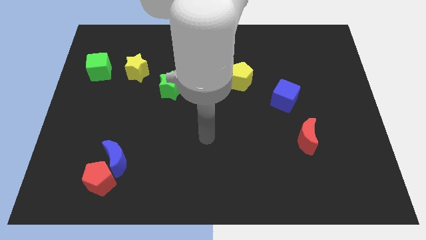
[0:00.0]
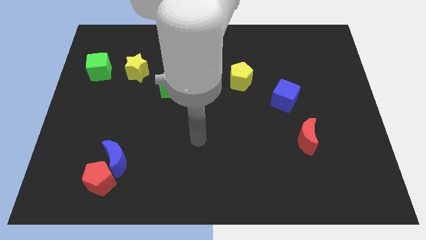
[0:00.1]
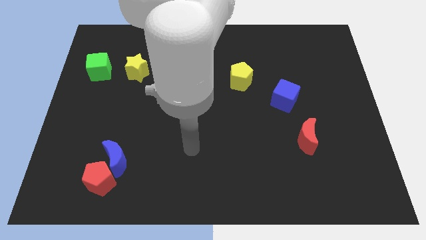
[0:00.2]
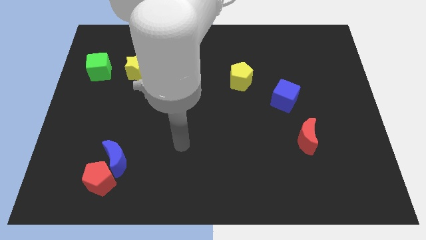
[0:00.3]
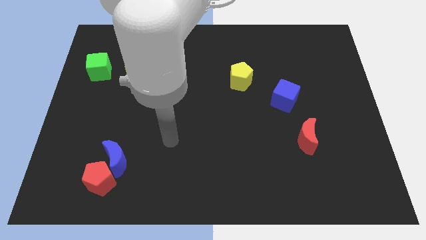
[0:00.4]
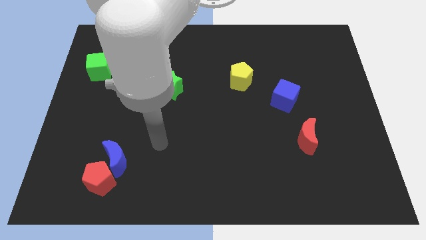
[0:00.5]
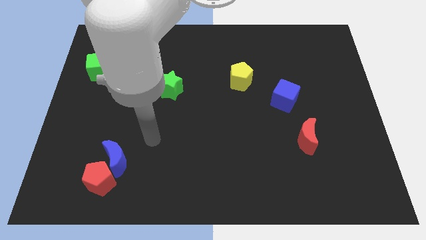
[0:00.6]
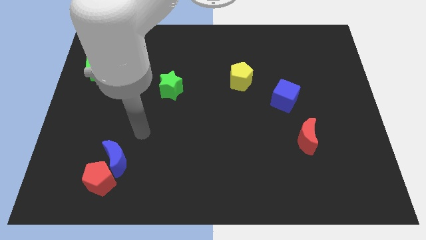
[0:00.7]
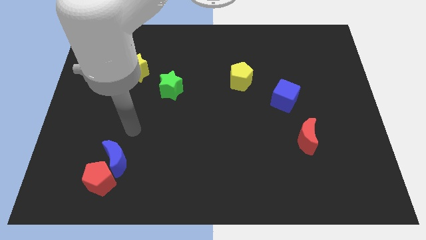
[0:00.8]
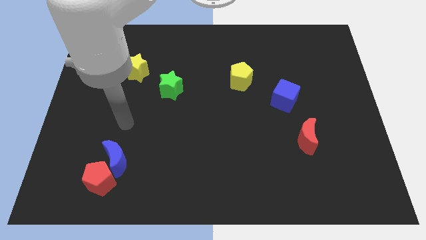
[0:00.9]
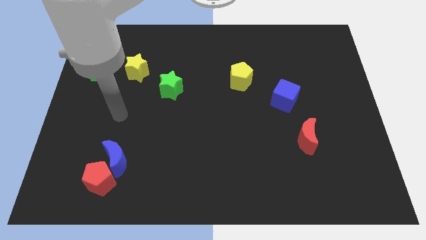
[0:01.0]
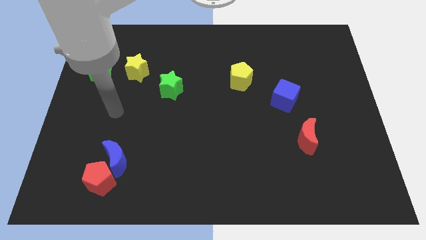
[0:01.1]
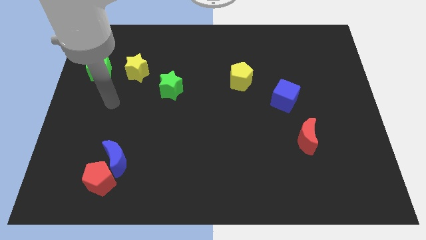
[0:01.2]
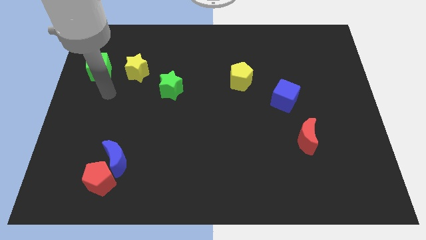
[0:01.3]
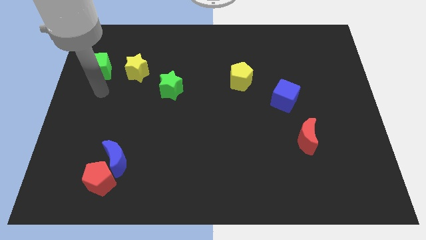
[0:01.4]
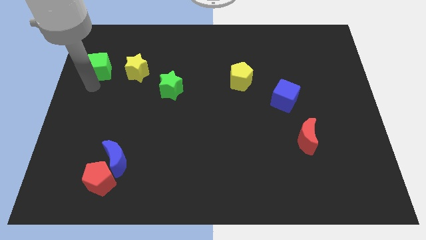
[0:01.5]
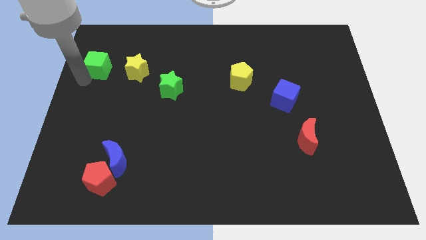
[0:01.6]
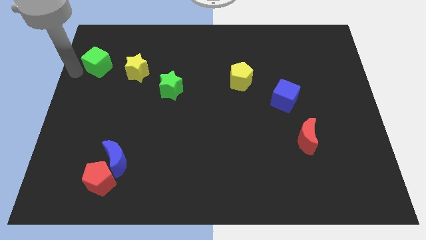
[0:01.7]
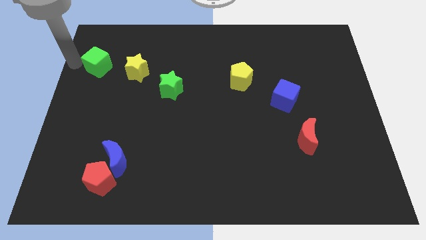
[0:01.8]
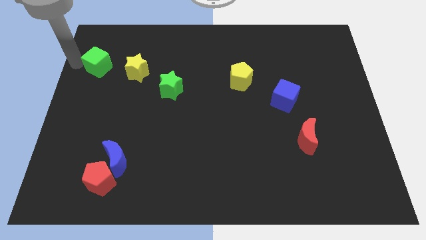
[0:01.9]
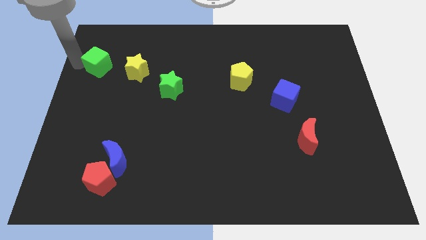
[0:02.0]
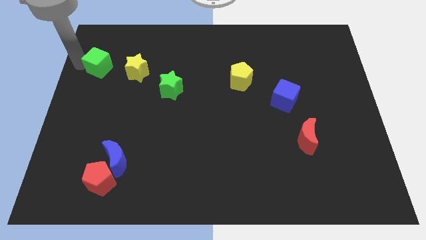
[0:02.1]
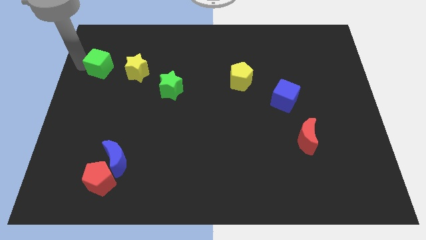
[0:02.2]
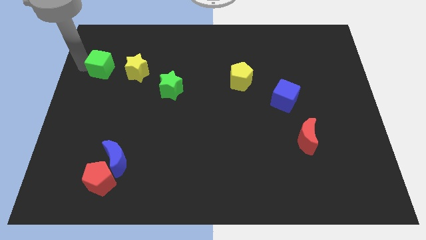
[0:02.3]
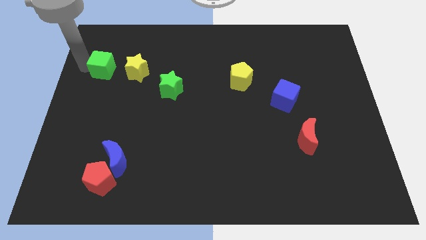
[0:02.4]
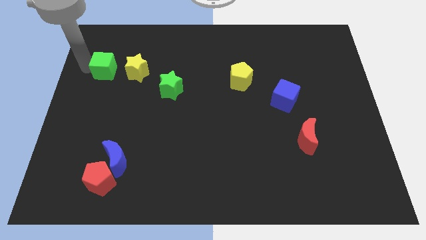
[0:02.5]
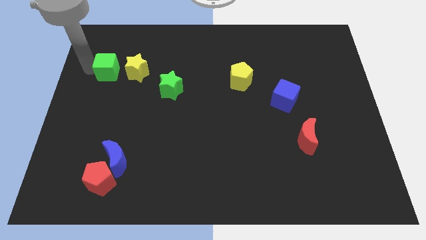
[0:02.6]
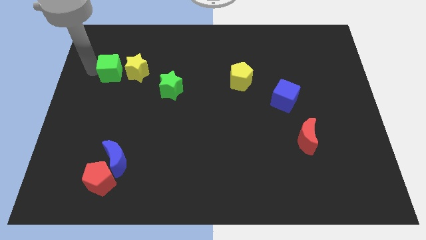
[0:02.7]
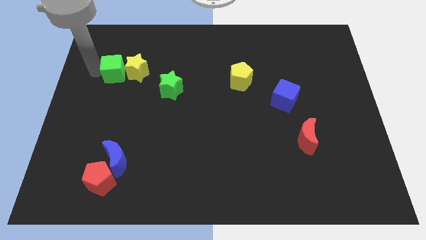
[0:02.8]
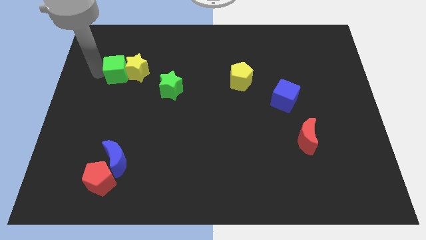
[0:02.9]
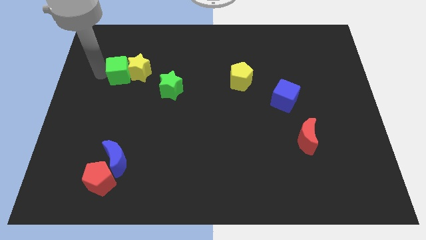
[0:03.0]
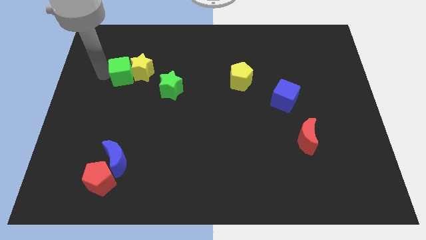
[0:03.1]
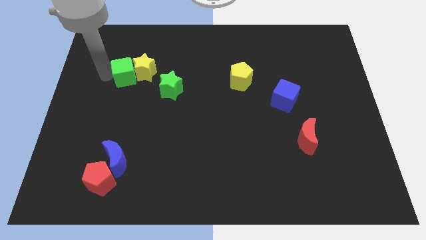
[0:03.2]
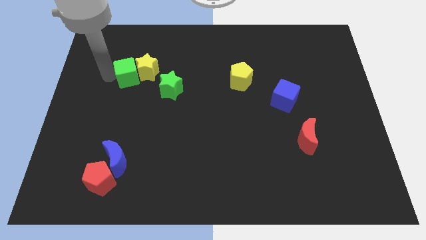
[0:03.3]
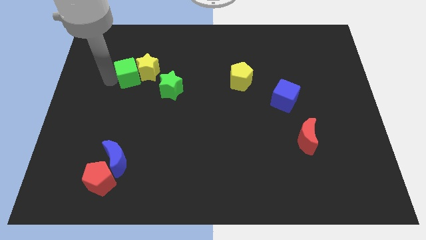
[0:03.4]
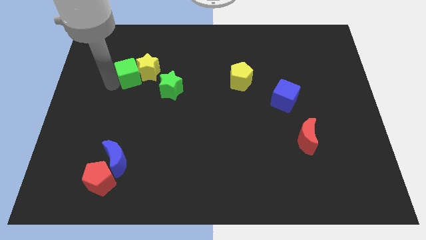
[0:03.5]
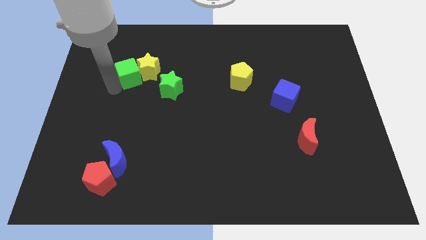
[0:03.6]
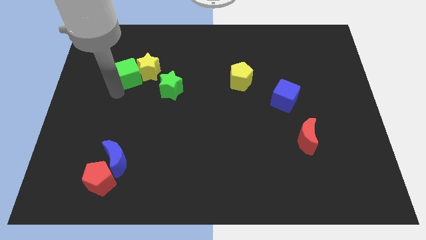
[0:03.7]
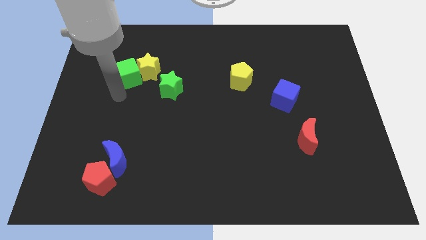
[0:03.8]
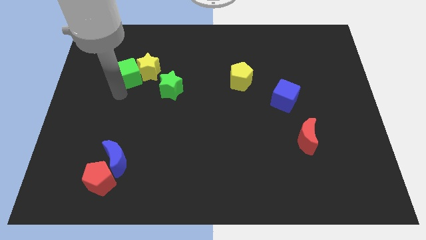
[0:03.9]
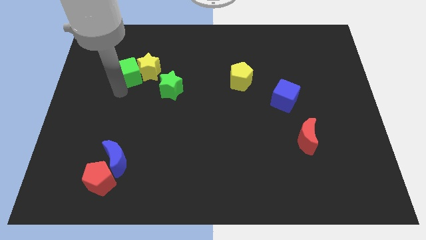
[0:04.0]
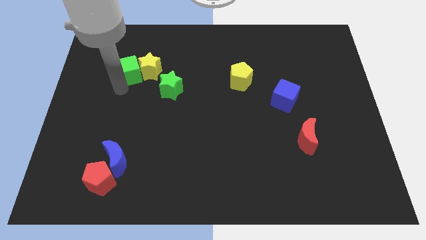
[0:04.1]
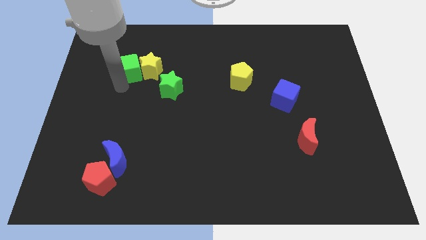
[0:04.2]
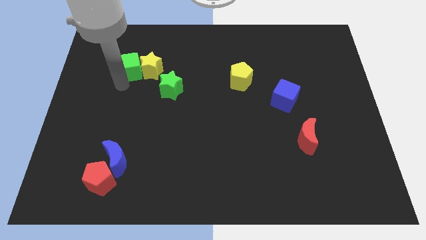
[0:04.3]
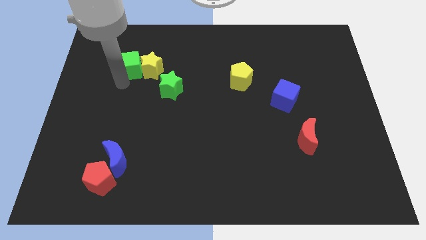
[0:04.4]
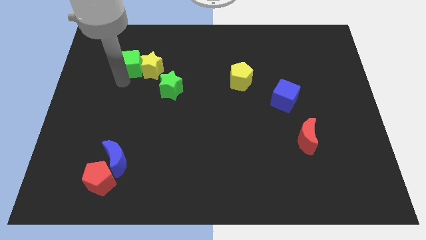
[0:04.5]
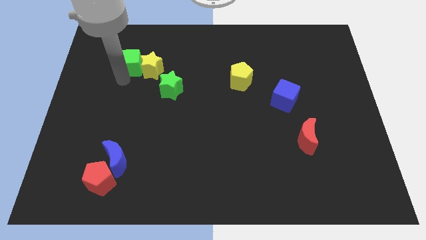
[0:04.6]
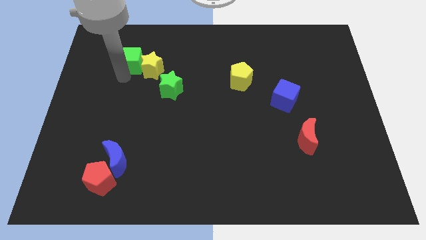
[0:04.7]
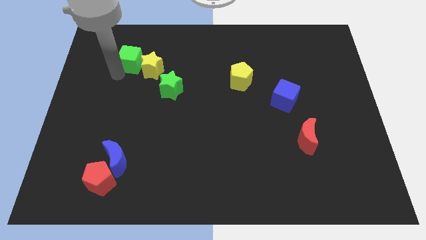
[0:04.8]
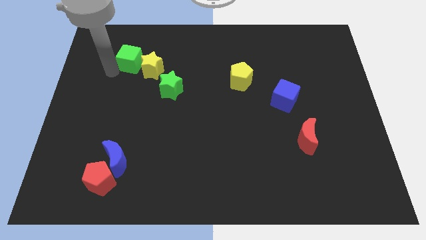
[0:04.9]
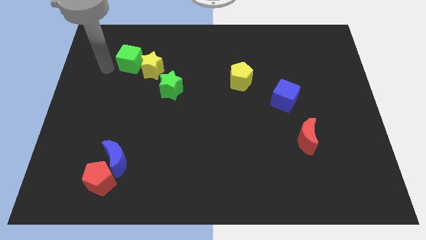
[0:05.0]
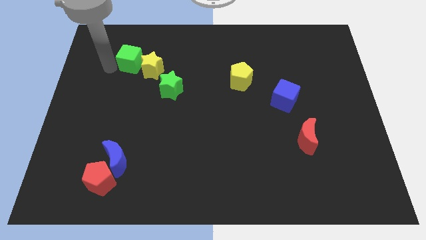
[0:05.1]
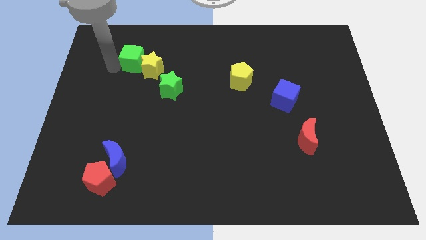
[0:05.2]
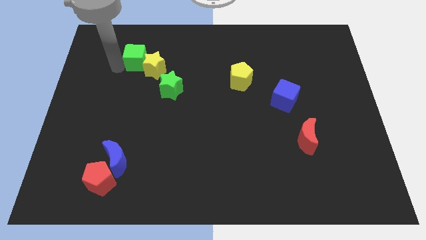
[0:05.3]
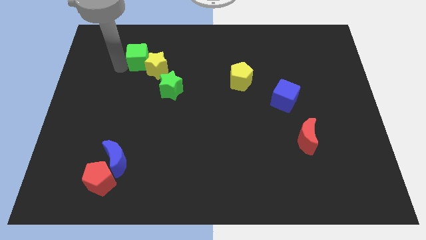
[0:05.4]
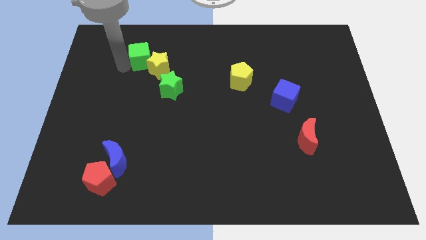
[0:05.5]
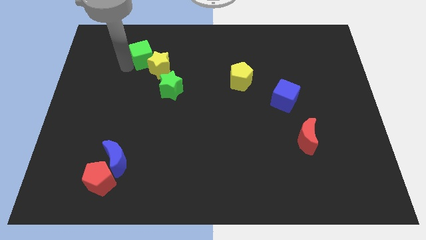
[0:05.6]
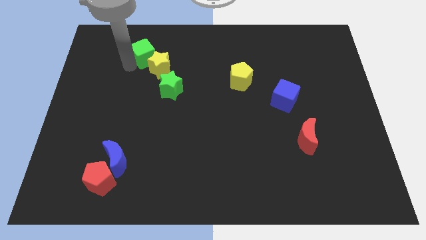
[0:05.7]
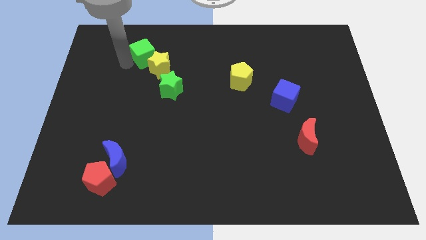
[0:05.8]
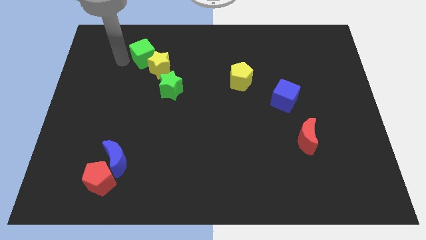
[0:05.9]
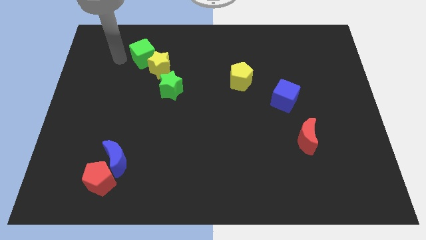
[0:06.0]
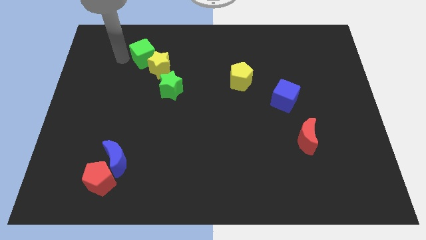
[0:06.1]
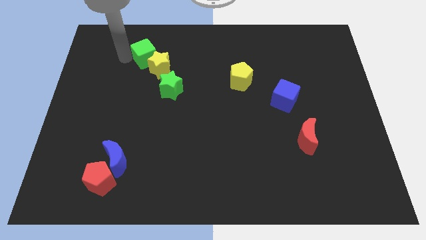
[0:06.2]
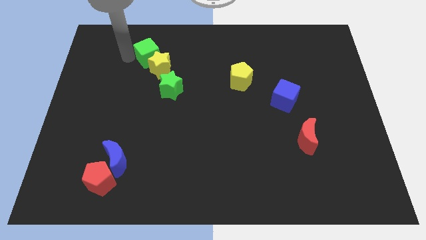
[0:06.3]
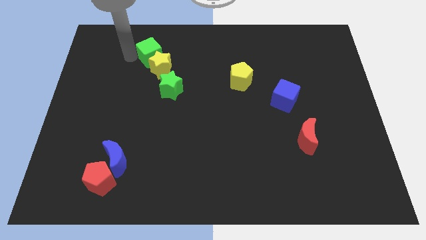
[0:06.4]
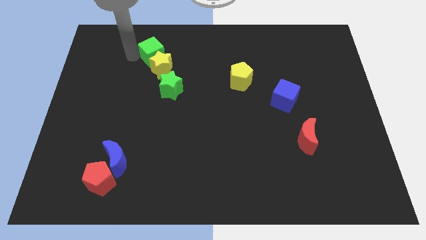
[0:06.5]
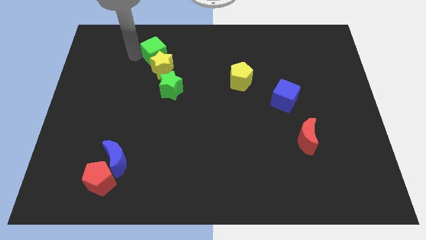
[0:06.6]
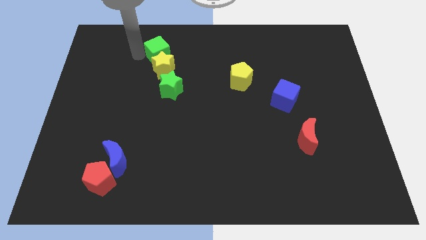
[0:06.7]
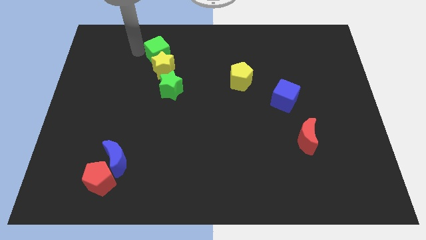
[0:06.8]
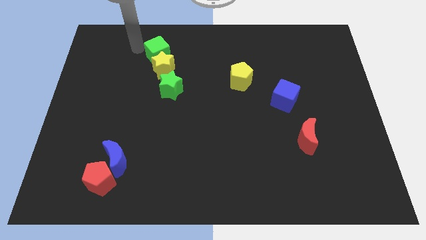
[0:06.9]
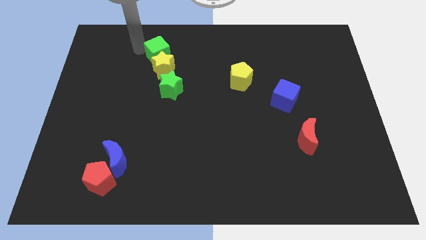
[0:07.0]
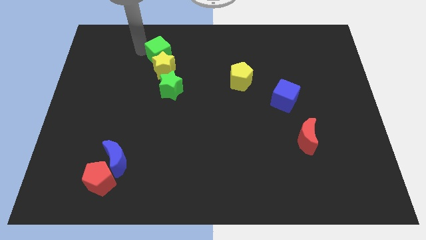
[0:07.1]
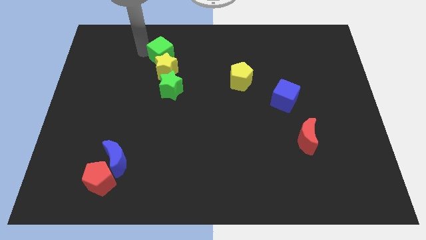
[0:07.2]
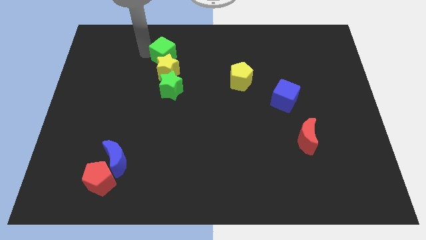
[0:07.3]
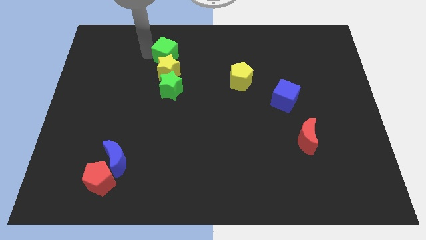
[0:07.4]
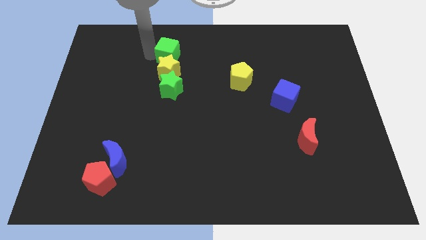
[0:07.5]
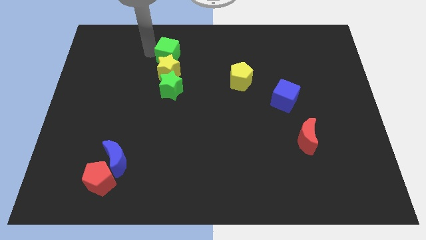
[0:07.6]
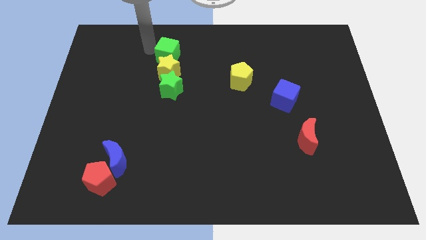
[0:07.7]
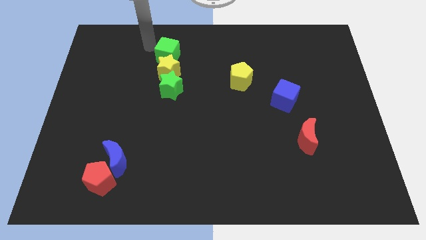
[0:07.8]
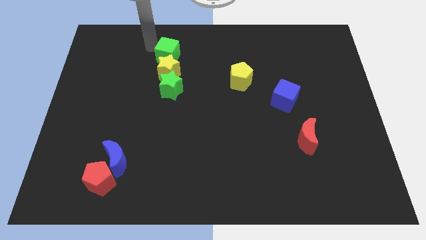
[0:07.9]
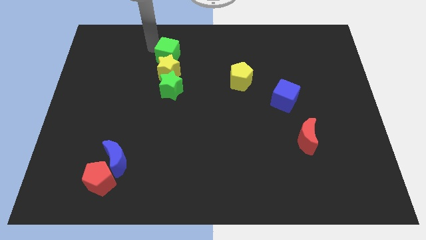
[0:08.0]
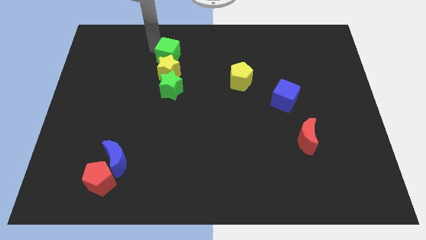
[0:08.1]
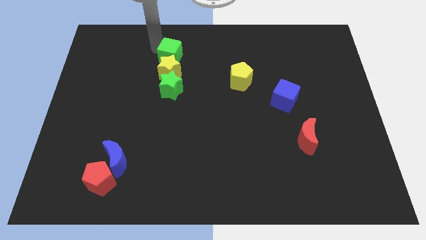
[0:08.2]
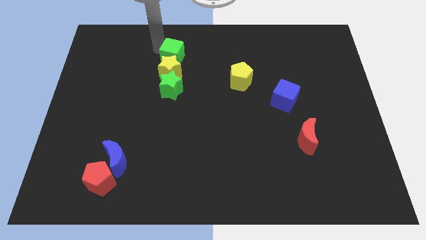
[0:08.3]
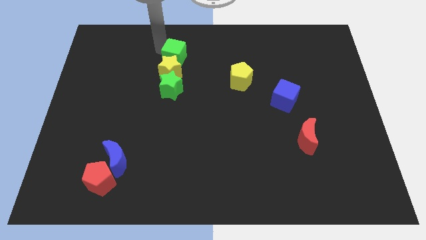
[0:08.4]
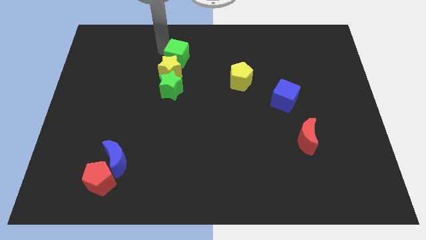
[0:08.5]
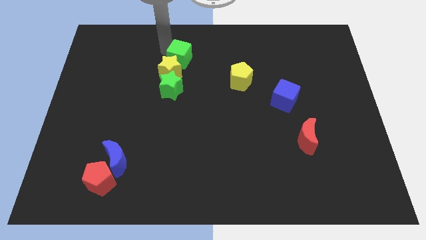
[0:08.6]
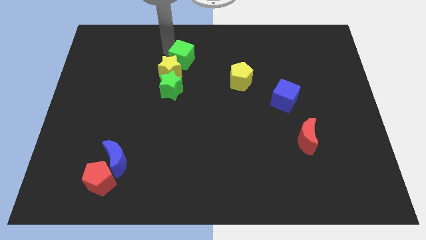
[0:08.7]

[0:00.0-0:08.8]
push the green cube to the right
